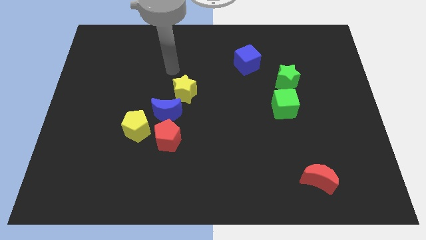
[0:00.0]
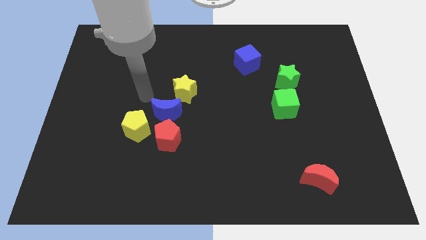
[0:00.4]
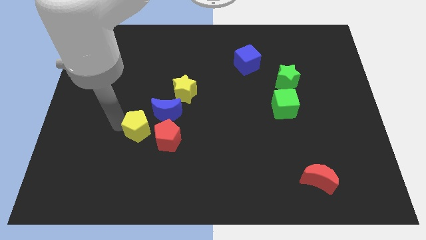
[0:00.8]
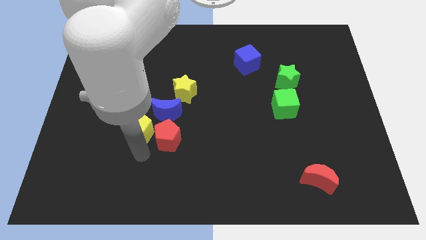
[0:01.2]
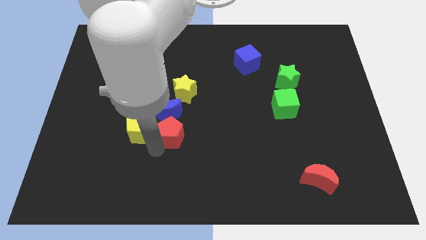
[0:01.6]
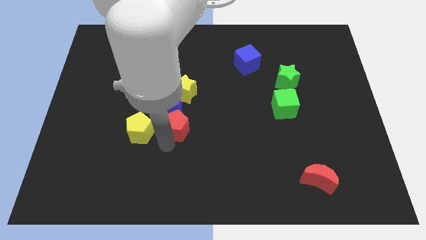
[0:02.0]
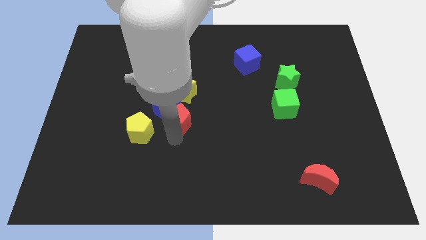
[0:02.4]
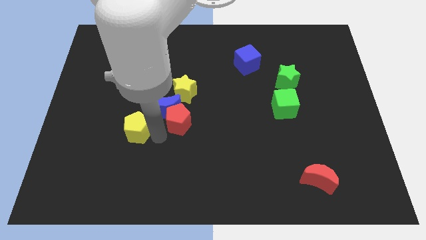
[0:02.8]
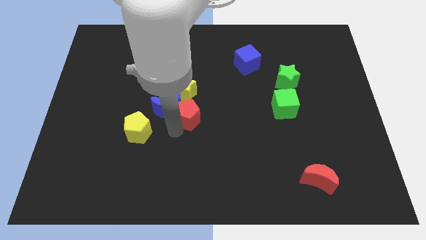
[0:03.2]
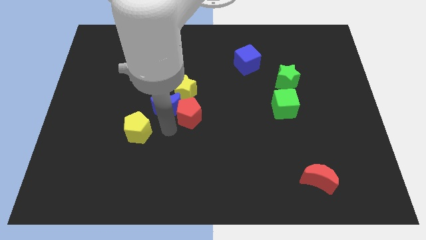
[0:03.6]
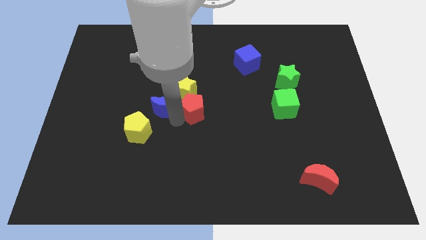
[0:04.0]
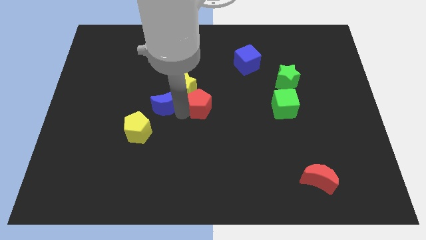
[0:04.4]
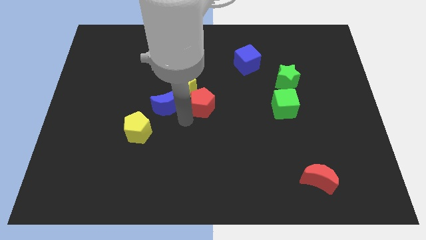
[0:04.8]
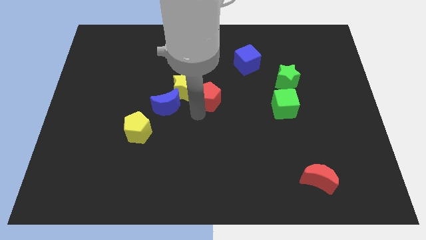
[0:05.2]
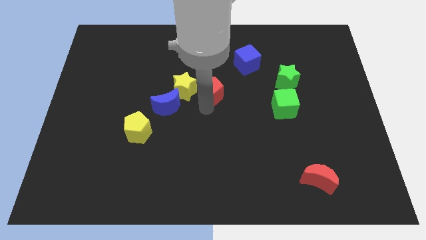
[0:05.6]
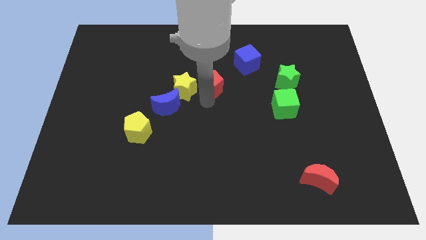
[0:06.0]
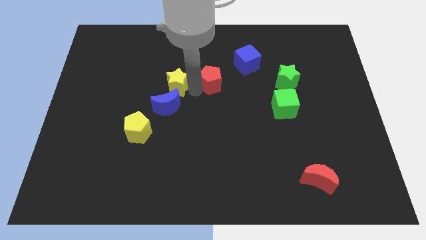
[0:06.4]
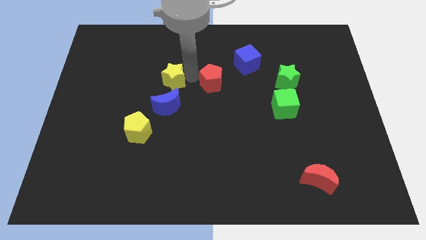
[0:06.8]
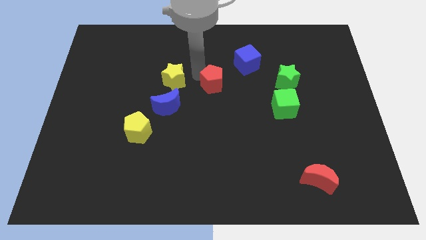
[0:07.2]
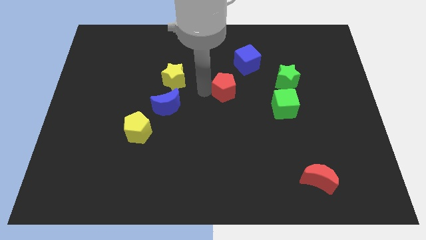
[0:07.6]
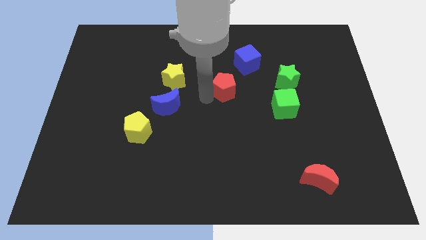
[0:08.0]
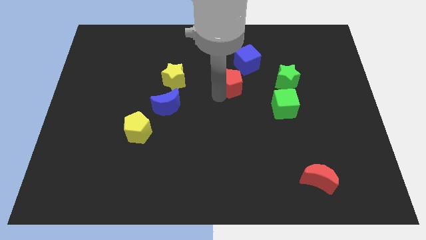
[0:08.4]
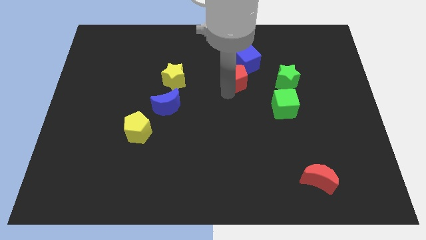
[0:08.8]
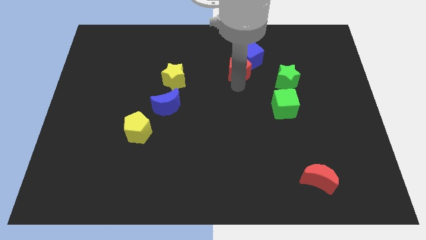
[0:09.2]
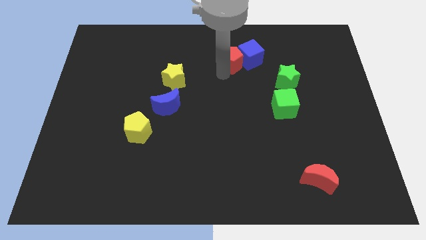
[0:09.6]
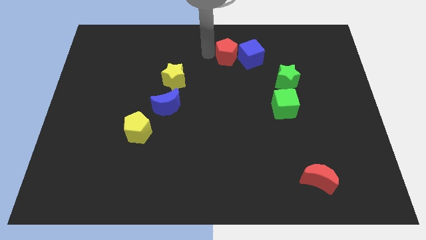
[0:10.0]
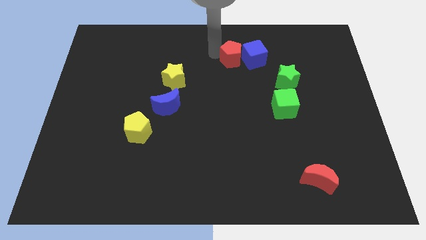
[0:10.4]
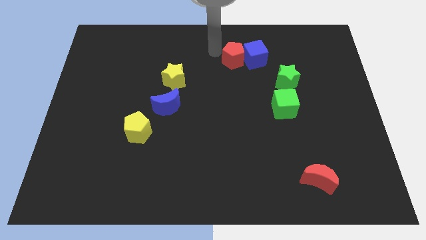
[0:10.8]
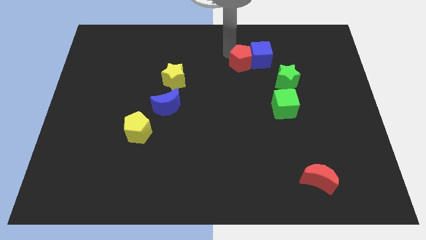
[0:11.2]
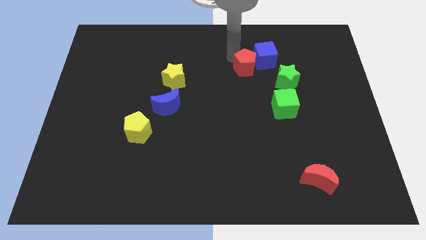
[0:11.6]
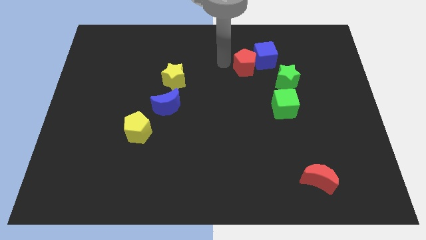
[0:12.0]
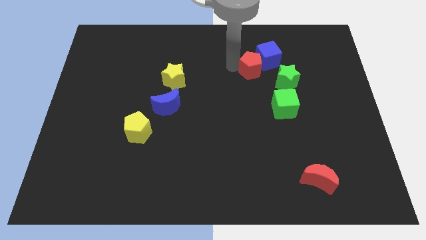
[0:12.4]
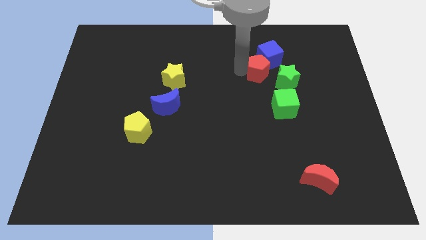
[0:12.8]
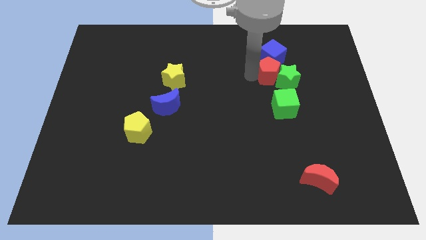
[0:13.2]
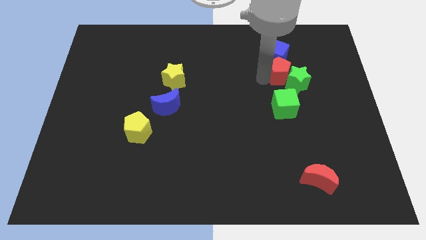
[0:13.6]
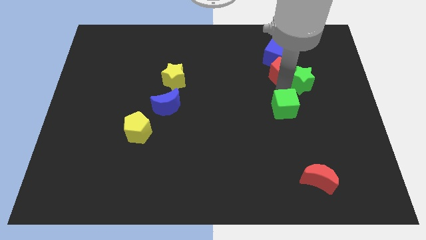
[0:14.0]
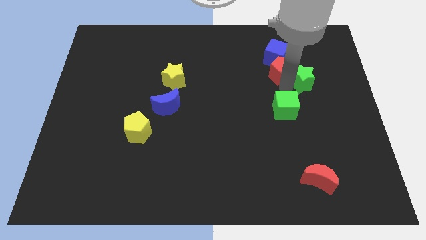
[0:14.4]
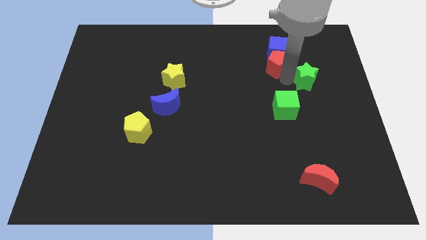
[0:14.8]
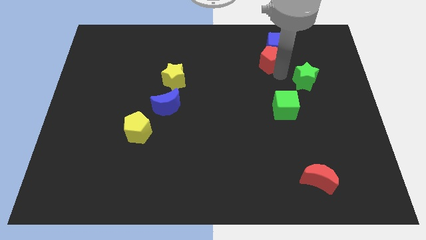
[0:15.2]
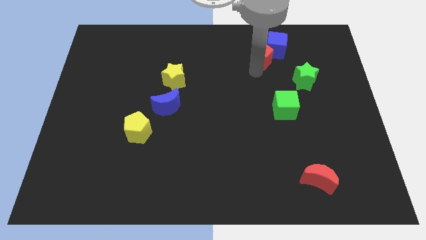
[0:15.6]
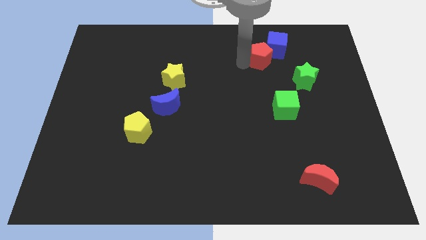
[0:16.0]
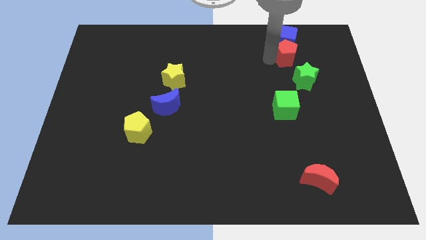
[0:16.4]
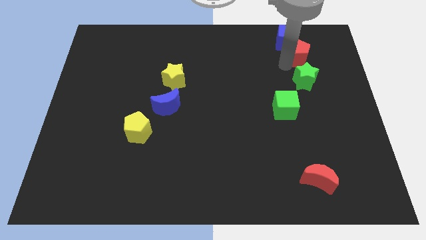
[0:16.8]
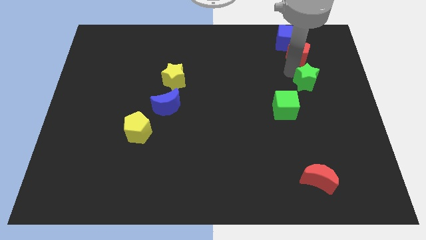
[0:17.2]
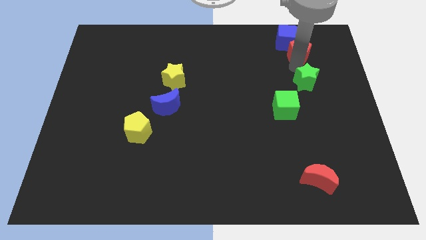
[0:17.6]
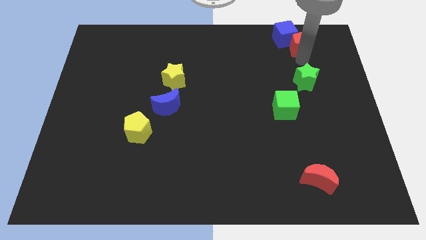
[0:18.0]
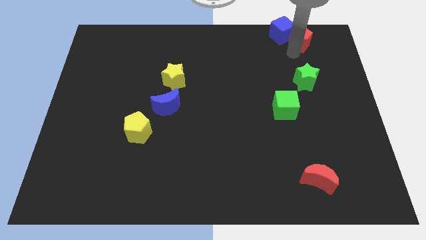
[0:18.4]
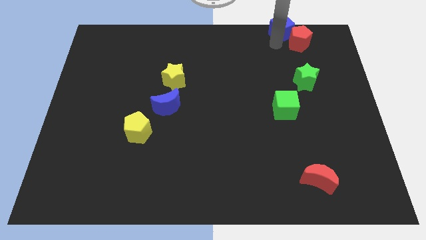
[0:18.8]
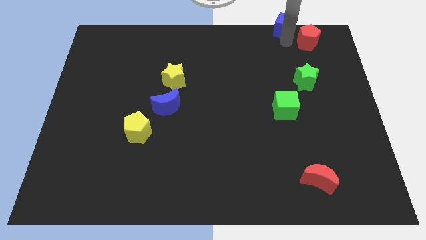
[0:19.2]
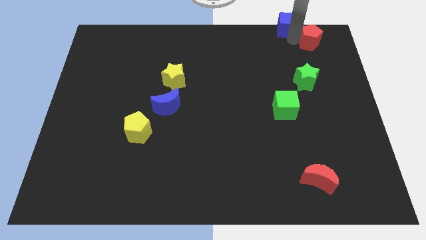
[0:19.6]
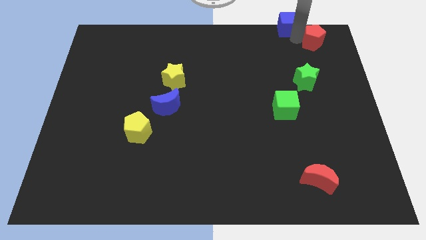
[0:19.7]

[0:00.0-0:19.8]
slide the red pentagon to the upper right corner

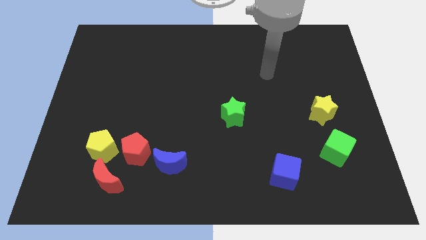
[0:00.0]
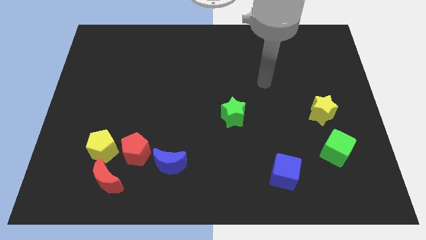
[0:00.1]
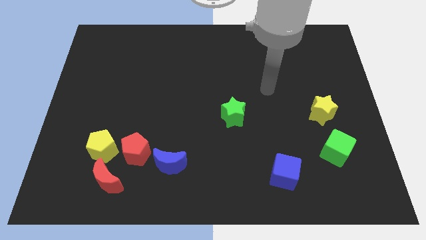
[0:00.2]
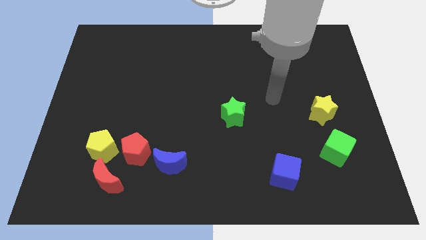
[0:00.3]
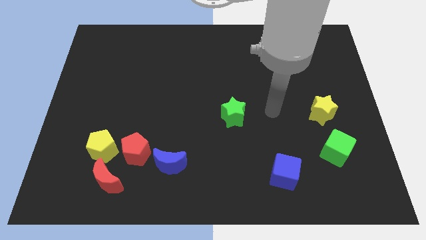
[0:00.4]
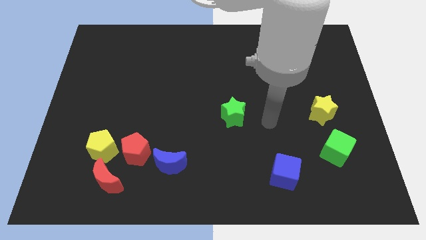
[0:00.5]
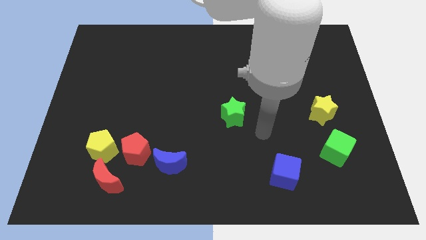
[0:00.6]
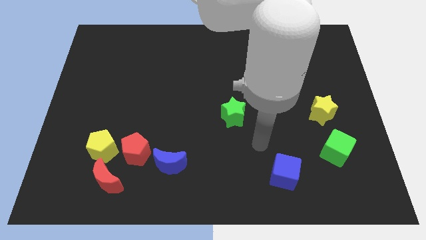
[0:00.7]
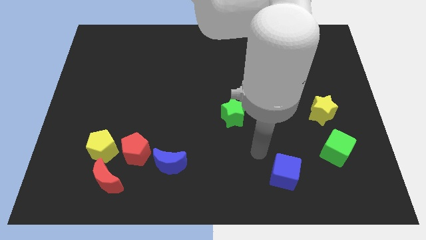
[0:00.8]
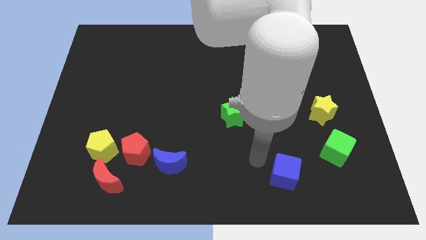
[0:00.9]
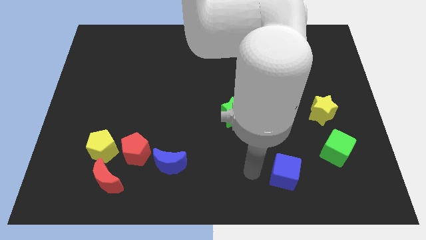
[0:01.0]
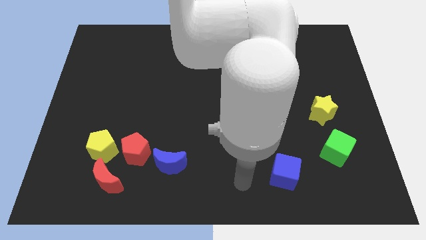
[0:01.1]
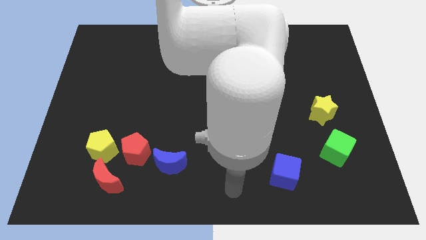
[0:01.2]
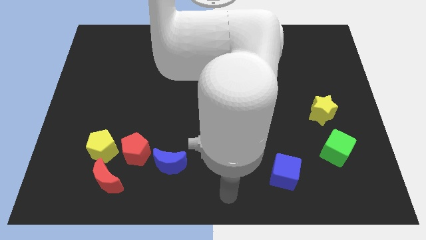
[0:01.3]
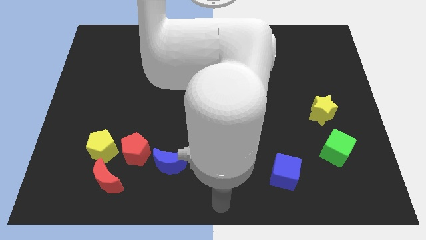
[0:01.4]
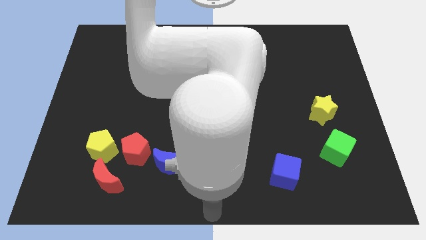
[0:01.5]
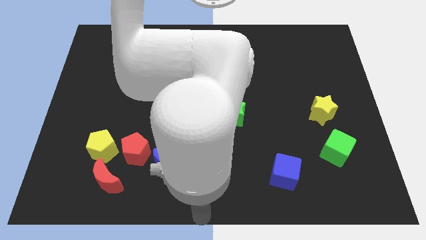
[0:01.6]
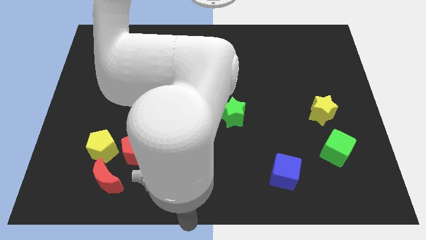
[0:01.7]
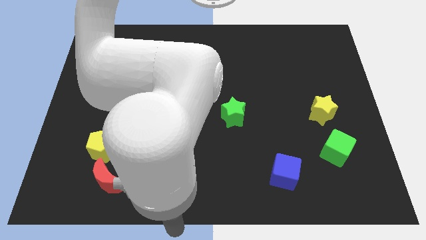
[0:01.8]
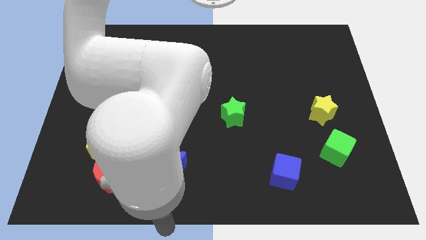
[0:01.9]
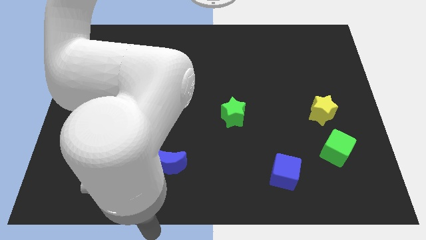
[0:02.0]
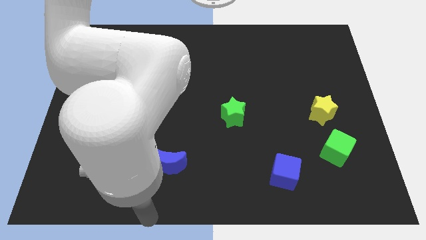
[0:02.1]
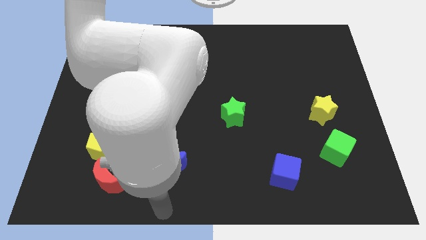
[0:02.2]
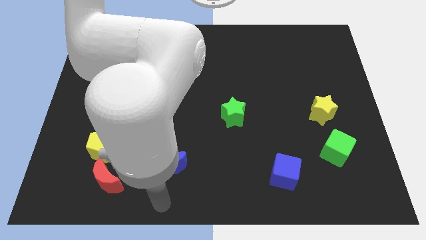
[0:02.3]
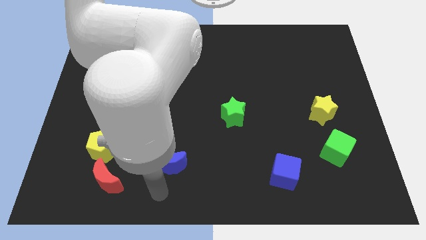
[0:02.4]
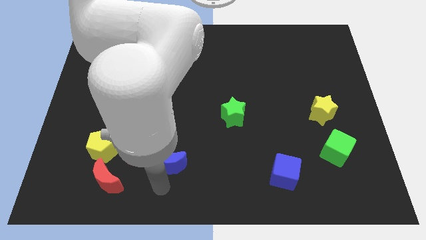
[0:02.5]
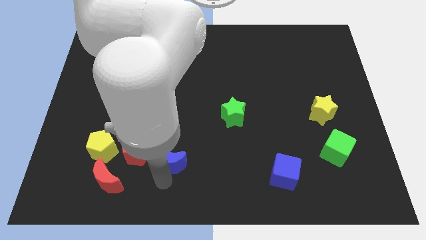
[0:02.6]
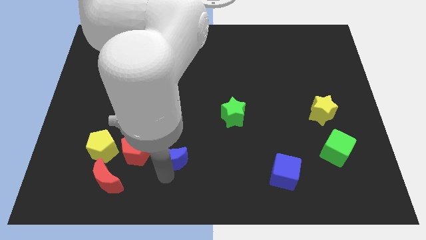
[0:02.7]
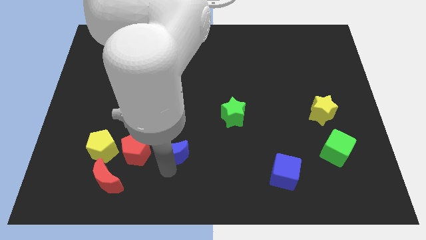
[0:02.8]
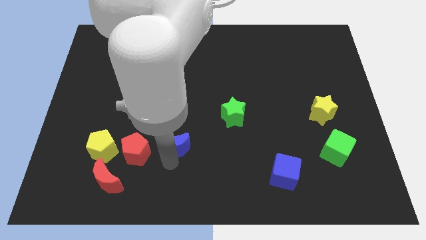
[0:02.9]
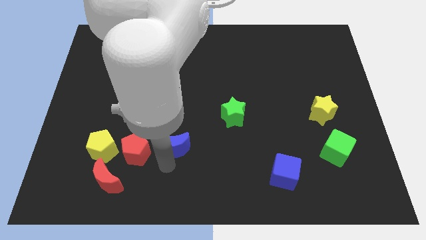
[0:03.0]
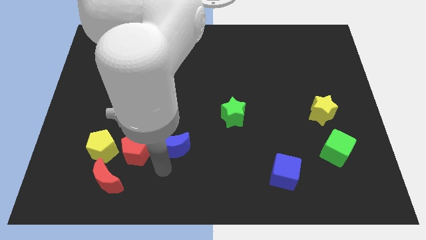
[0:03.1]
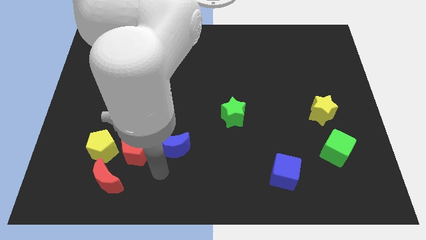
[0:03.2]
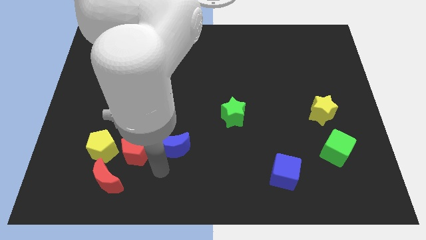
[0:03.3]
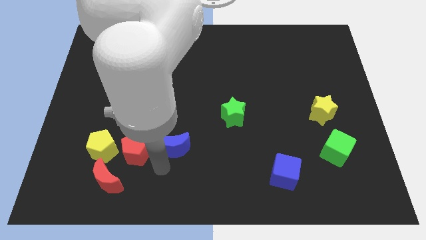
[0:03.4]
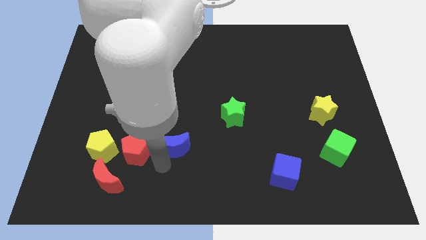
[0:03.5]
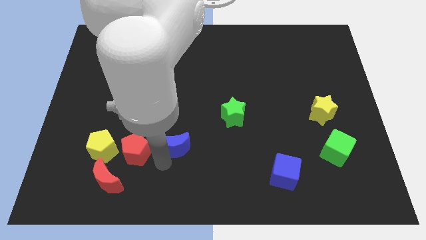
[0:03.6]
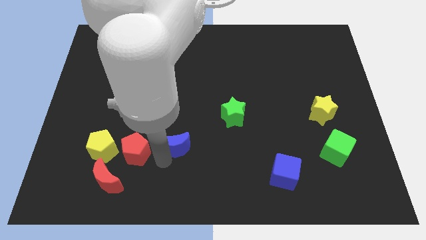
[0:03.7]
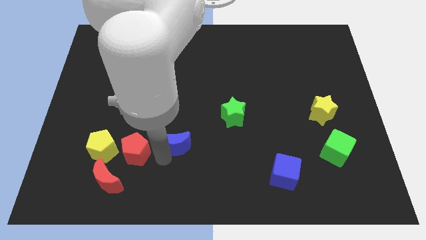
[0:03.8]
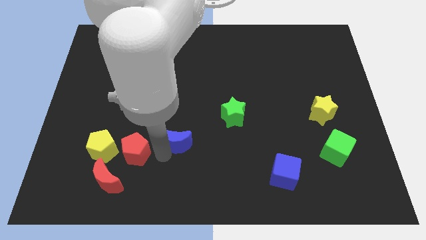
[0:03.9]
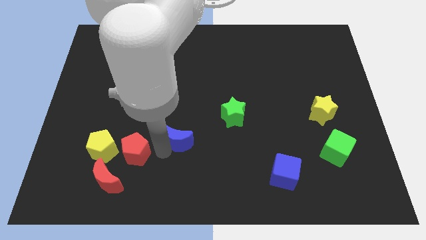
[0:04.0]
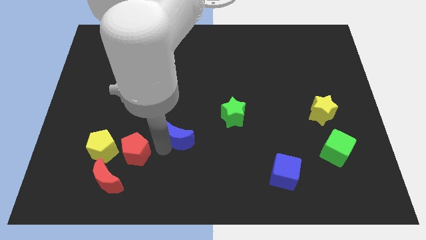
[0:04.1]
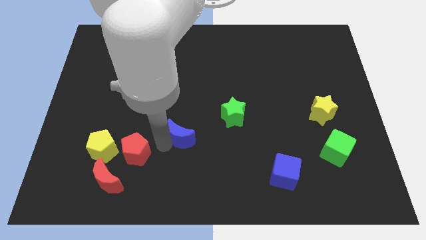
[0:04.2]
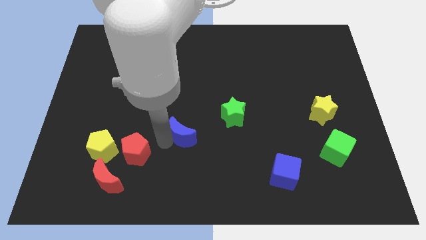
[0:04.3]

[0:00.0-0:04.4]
push the blue moon to the center
